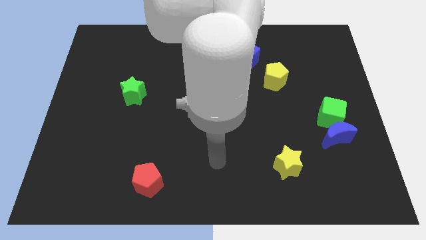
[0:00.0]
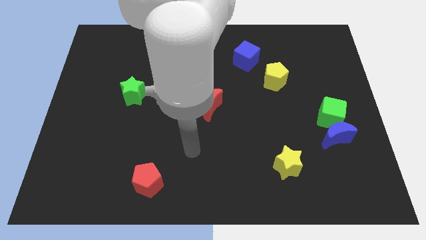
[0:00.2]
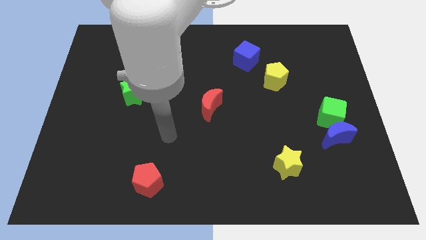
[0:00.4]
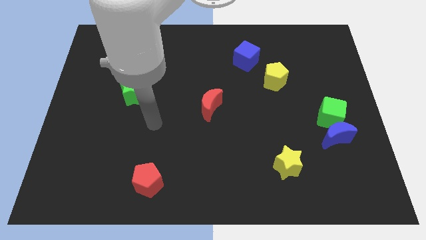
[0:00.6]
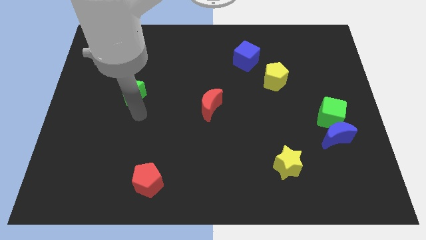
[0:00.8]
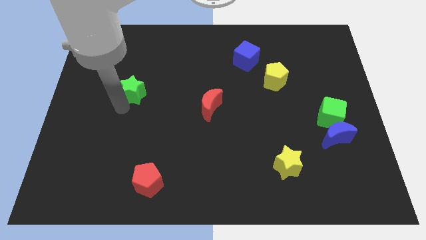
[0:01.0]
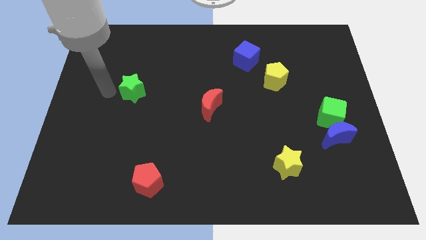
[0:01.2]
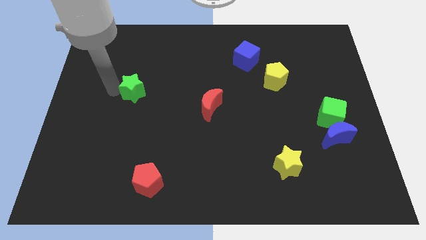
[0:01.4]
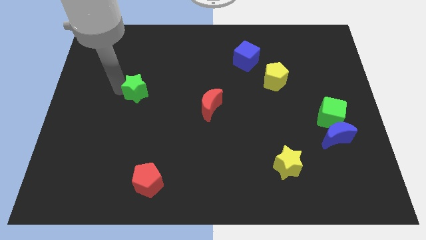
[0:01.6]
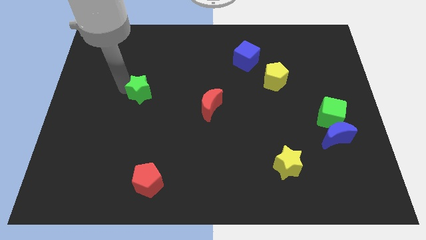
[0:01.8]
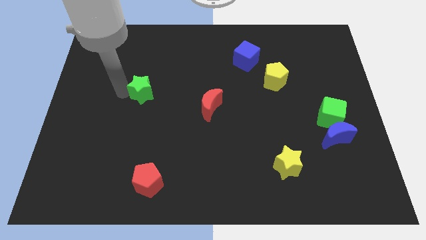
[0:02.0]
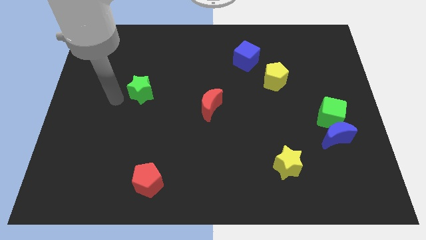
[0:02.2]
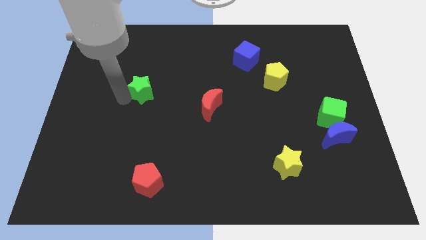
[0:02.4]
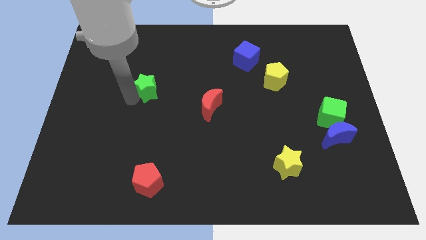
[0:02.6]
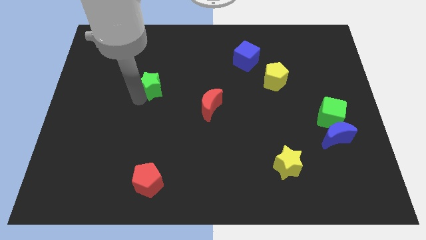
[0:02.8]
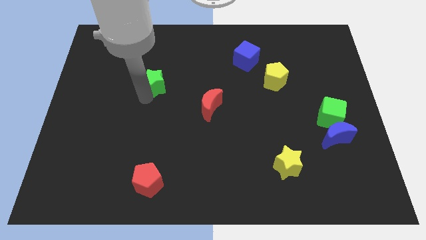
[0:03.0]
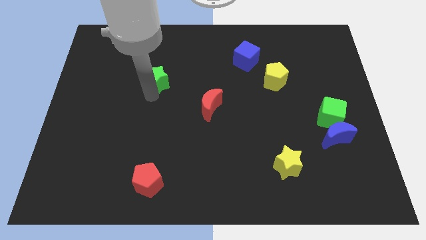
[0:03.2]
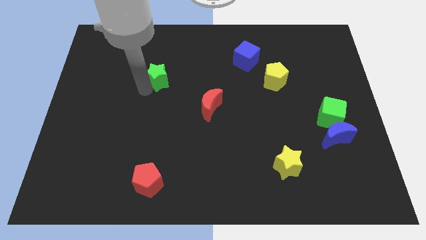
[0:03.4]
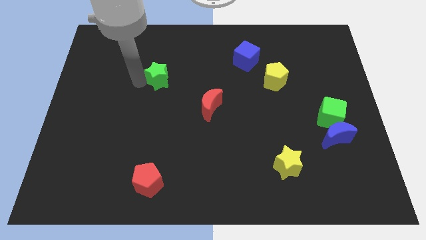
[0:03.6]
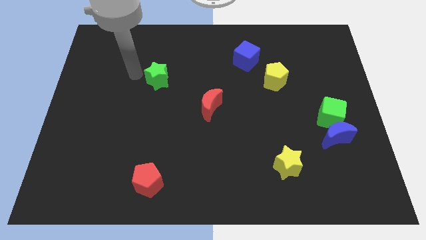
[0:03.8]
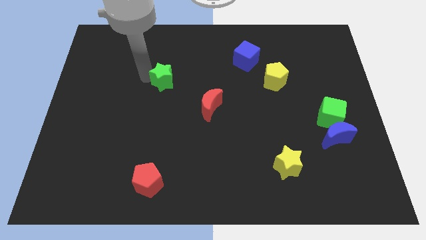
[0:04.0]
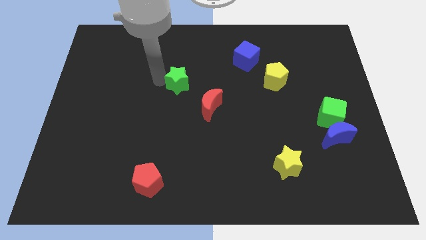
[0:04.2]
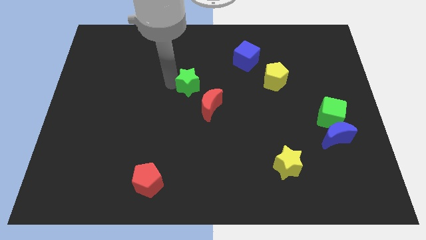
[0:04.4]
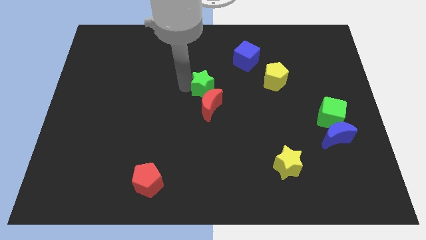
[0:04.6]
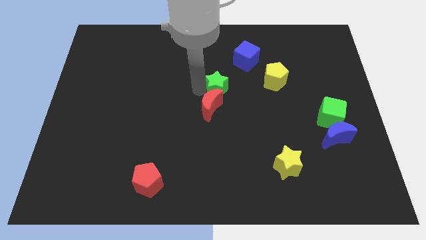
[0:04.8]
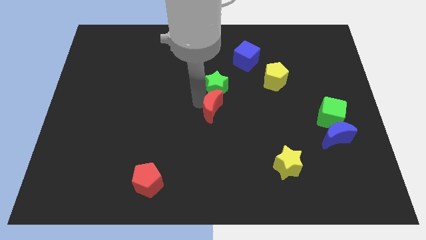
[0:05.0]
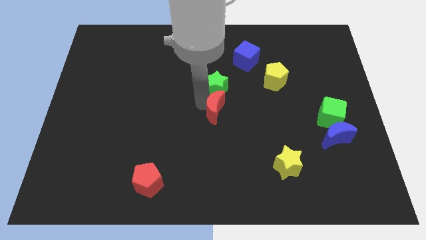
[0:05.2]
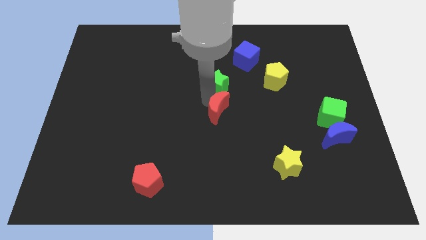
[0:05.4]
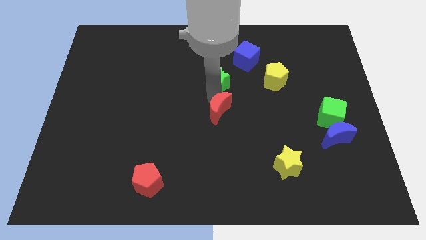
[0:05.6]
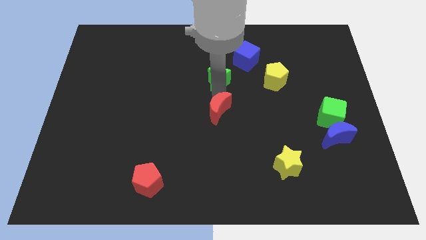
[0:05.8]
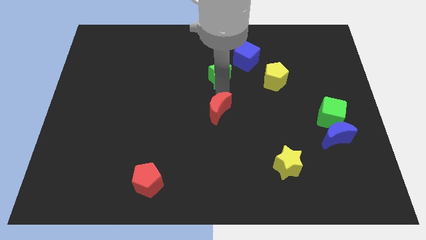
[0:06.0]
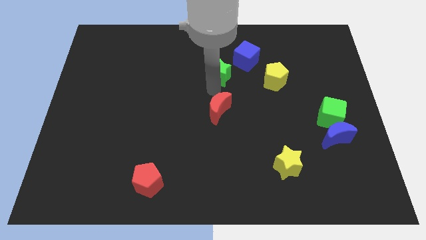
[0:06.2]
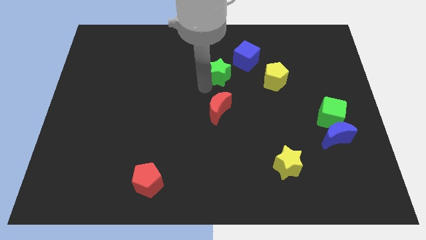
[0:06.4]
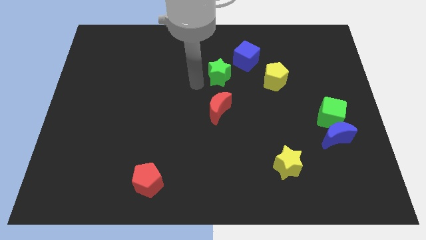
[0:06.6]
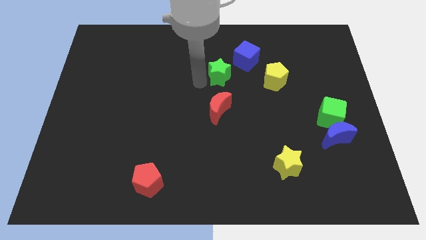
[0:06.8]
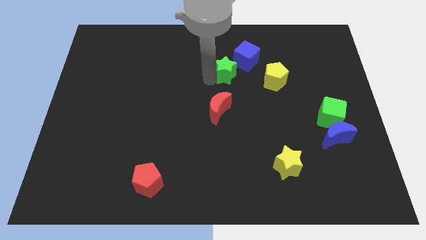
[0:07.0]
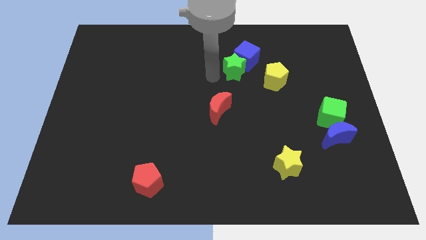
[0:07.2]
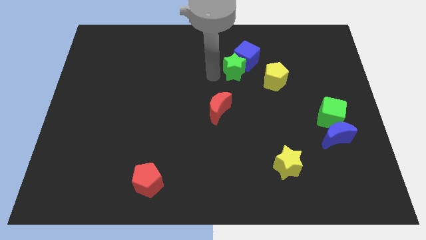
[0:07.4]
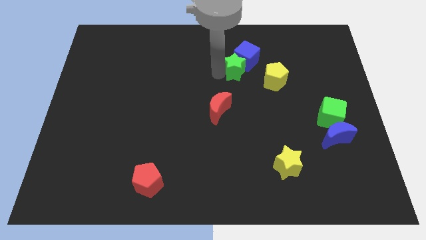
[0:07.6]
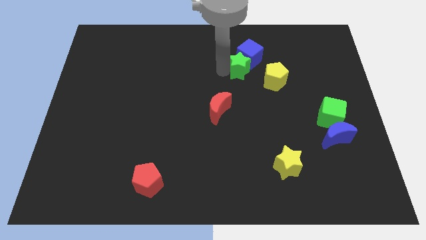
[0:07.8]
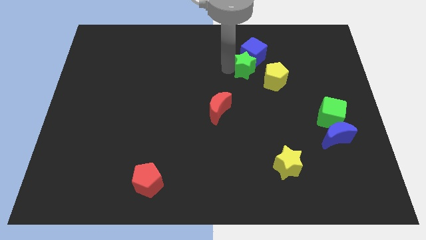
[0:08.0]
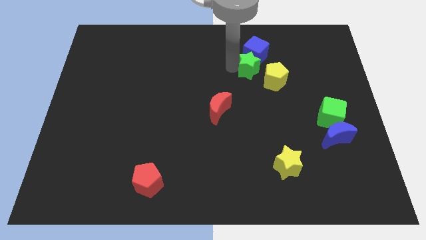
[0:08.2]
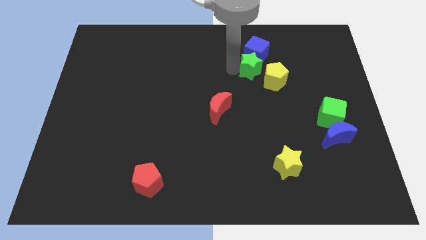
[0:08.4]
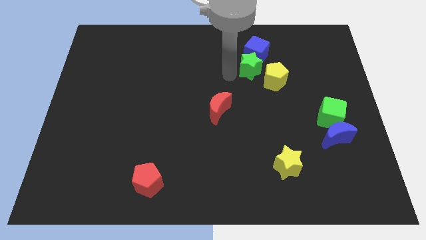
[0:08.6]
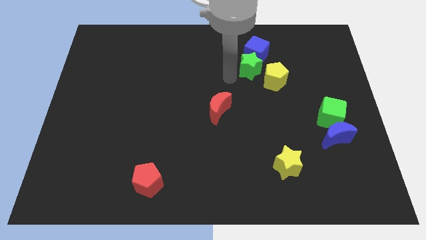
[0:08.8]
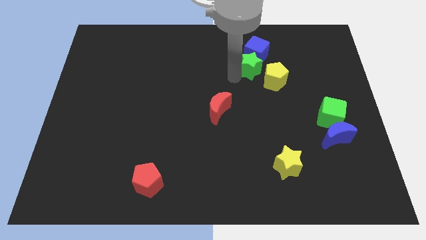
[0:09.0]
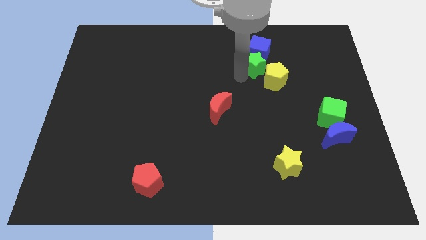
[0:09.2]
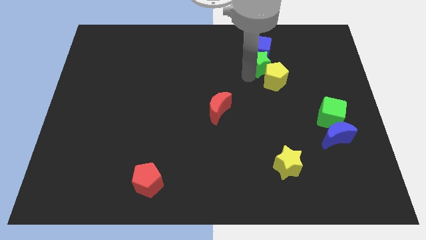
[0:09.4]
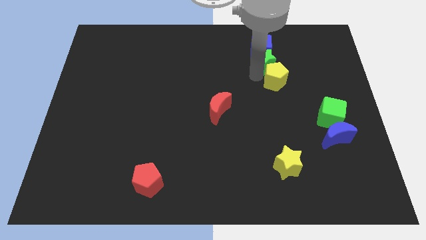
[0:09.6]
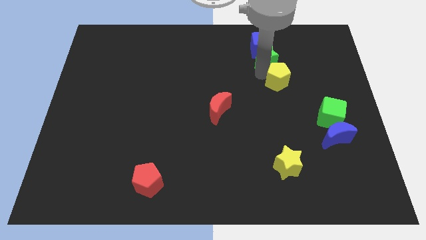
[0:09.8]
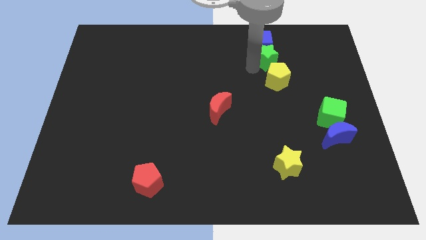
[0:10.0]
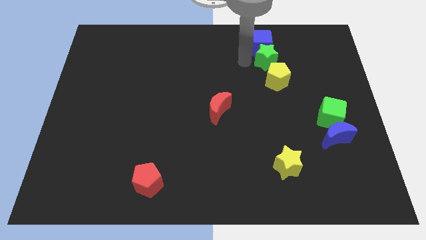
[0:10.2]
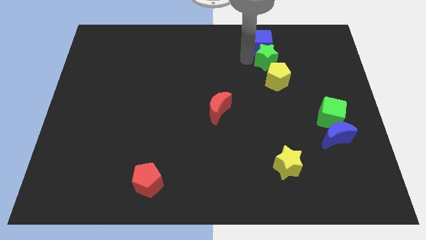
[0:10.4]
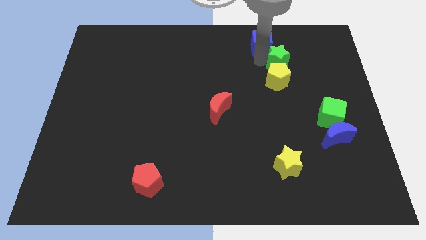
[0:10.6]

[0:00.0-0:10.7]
move the green star diagonally up and to the right of the yellow pentagon

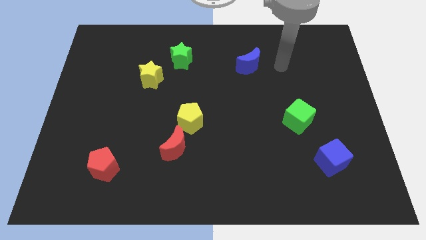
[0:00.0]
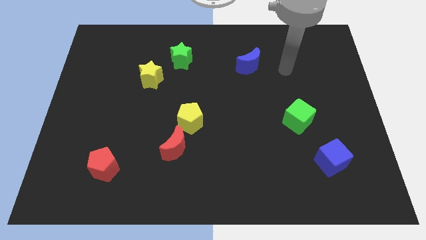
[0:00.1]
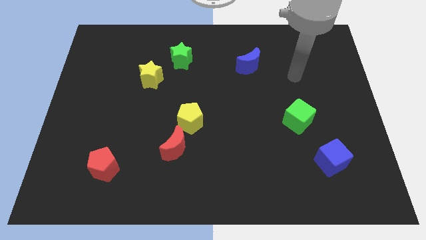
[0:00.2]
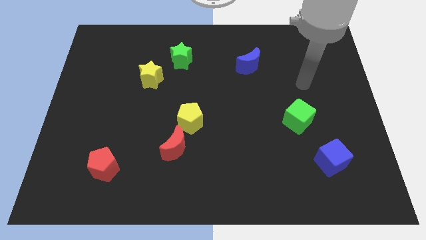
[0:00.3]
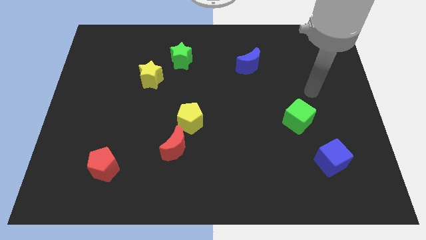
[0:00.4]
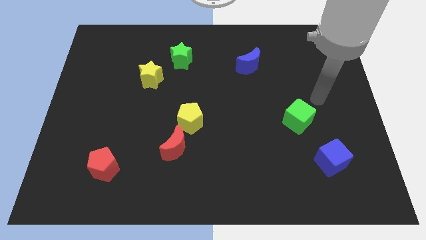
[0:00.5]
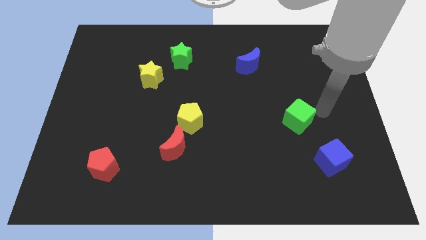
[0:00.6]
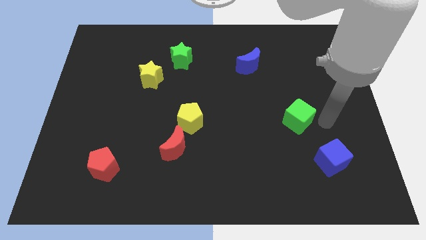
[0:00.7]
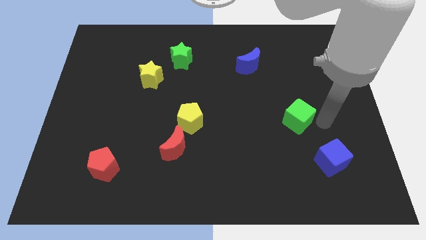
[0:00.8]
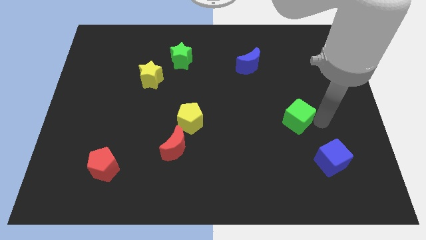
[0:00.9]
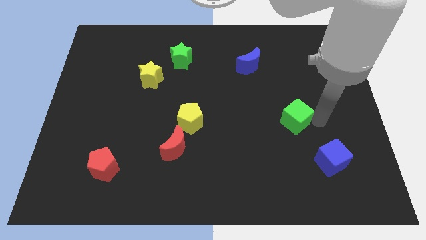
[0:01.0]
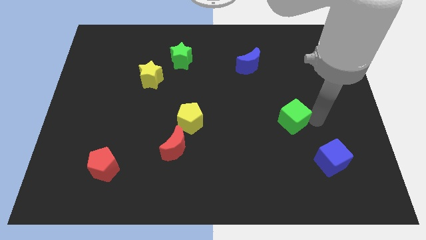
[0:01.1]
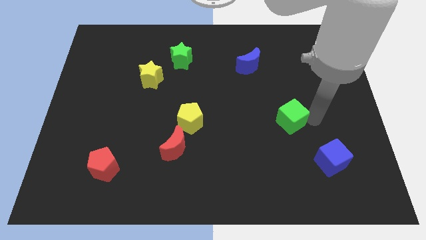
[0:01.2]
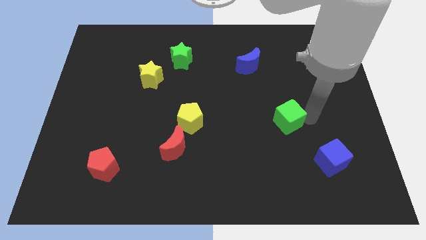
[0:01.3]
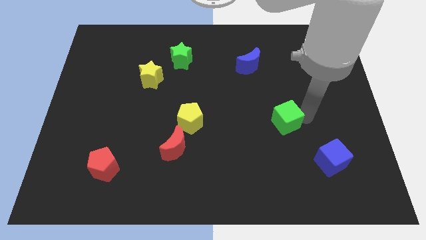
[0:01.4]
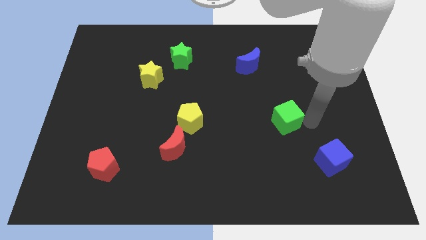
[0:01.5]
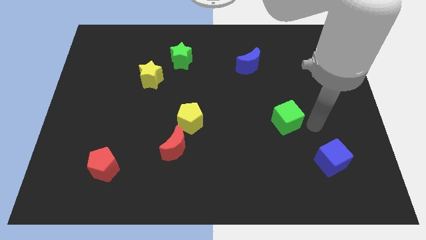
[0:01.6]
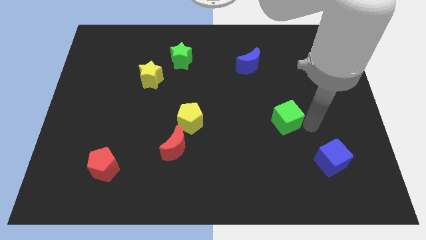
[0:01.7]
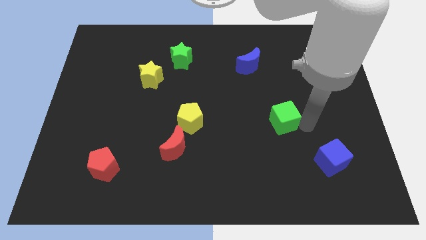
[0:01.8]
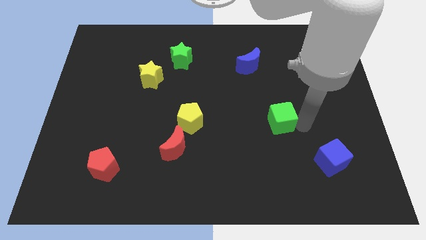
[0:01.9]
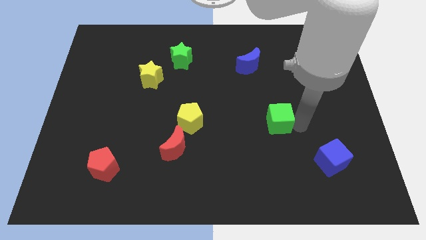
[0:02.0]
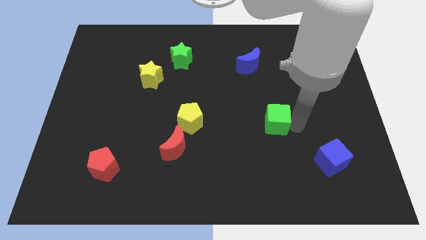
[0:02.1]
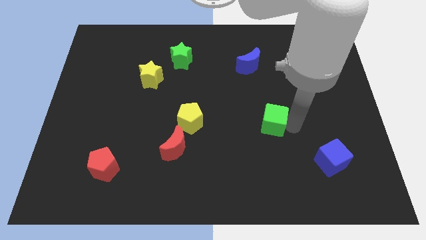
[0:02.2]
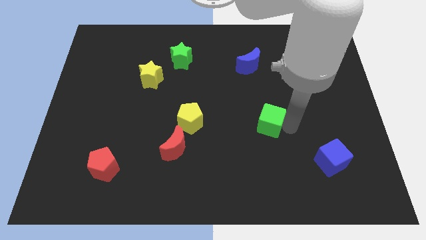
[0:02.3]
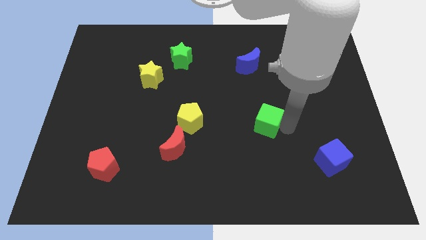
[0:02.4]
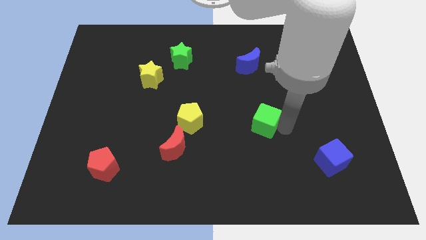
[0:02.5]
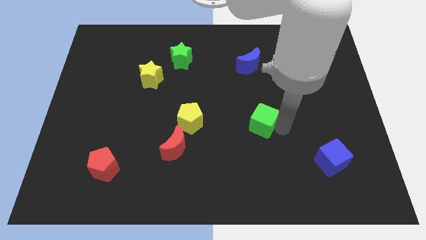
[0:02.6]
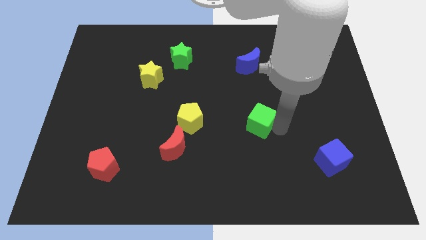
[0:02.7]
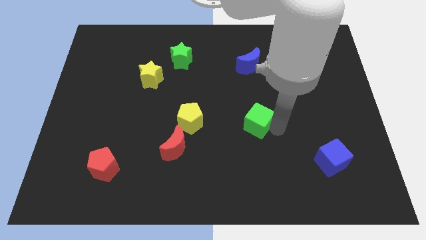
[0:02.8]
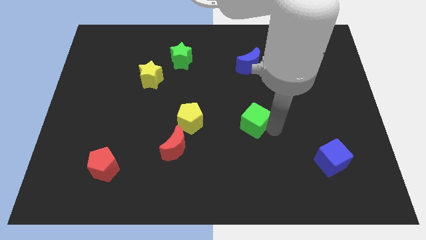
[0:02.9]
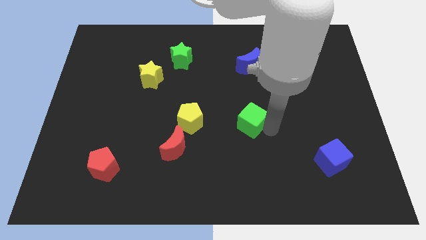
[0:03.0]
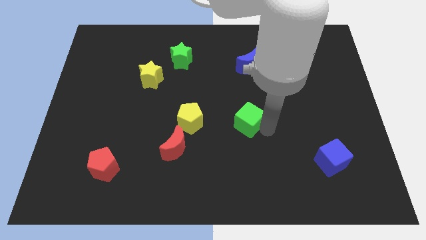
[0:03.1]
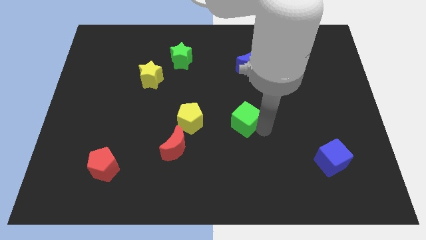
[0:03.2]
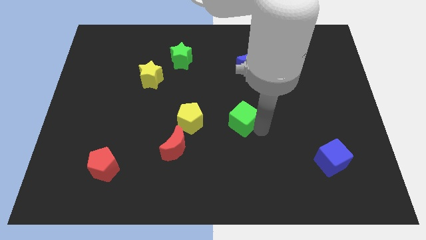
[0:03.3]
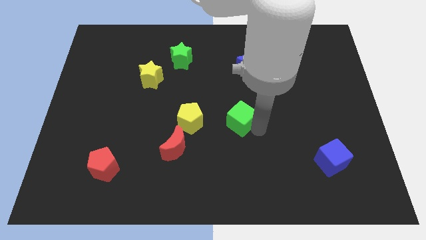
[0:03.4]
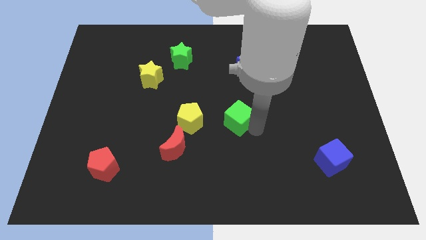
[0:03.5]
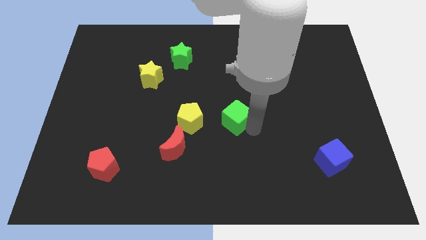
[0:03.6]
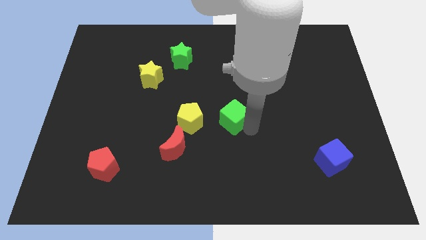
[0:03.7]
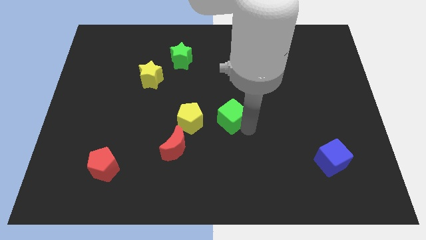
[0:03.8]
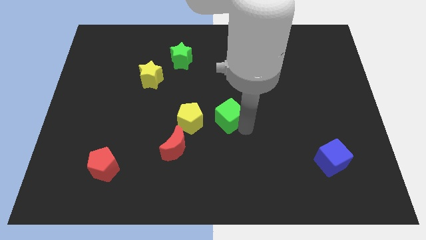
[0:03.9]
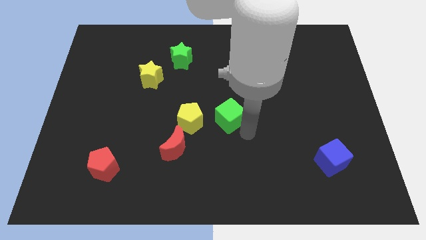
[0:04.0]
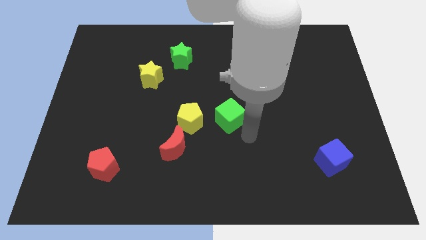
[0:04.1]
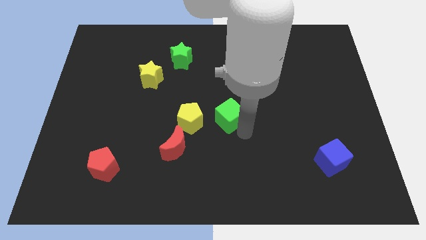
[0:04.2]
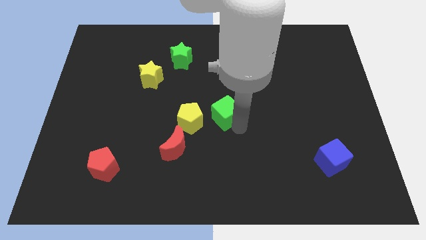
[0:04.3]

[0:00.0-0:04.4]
push the green cube to the top right side of the yellow pentagon
